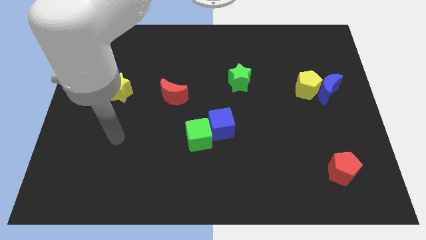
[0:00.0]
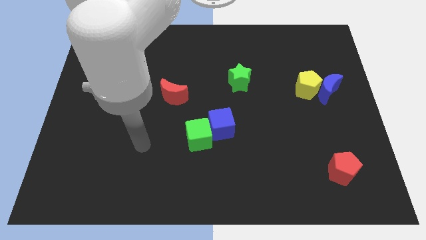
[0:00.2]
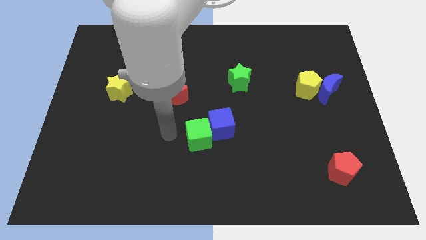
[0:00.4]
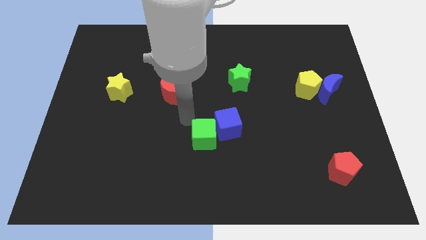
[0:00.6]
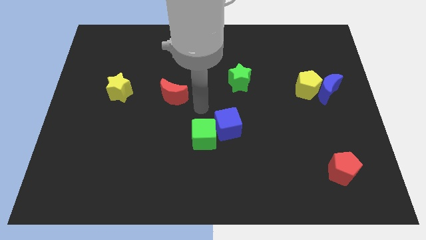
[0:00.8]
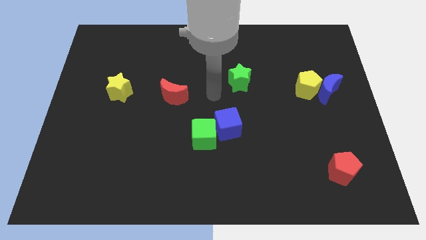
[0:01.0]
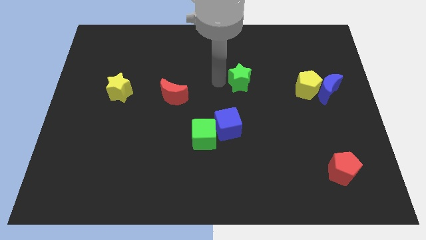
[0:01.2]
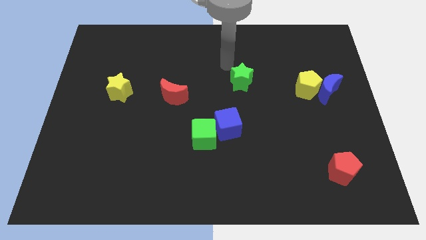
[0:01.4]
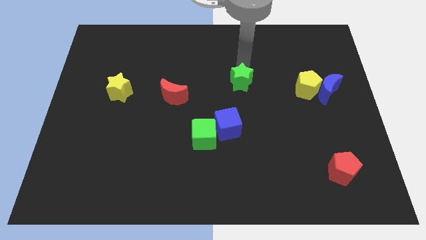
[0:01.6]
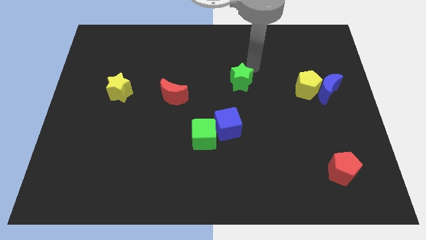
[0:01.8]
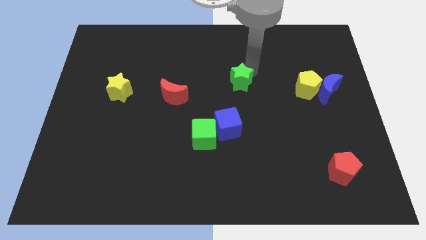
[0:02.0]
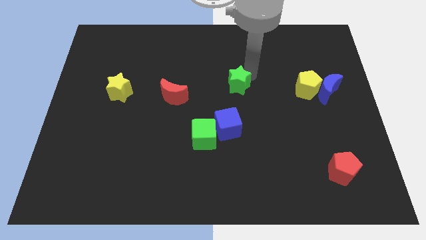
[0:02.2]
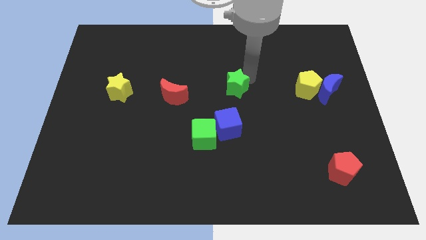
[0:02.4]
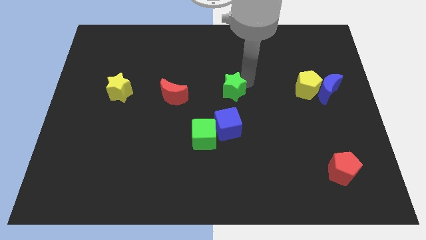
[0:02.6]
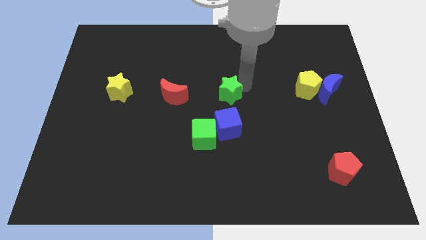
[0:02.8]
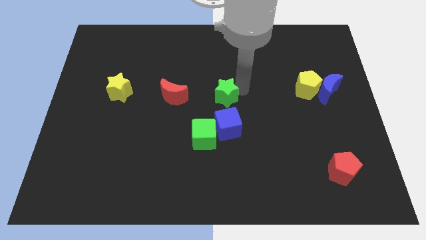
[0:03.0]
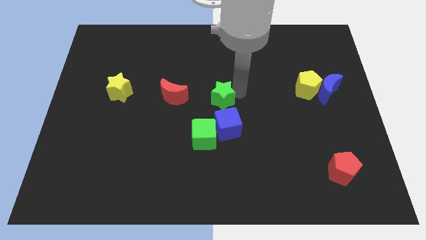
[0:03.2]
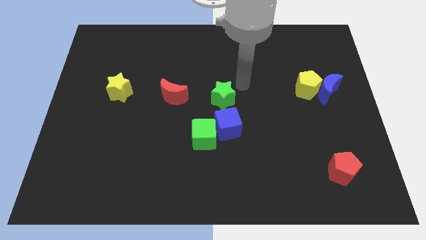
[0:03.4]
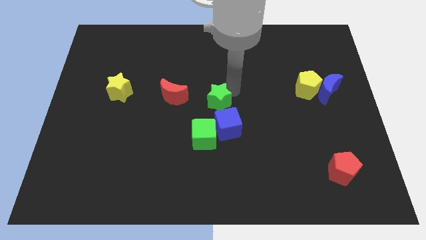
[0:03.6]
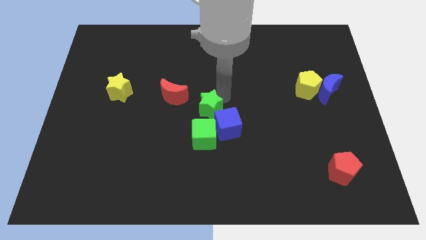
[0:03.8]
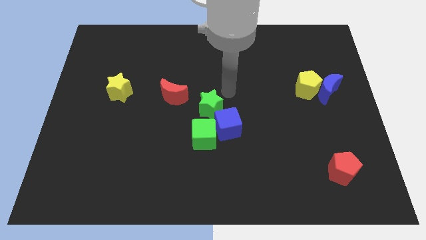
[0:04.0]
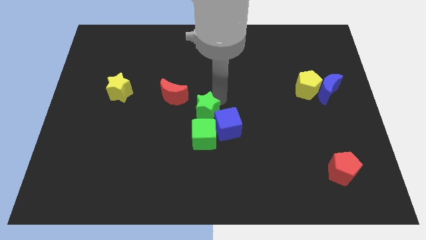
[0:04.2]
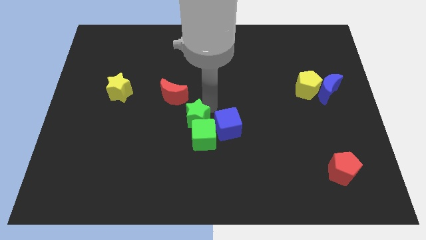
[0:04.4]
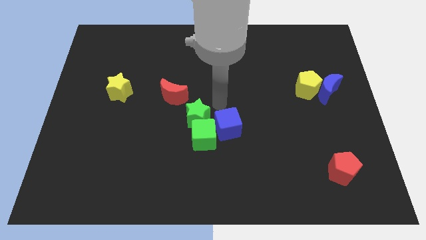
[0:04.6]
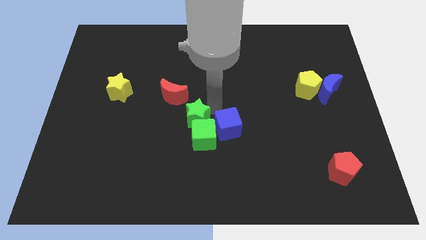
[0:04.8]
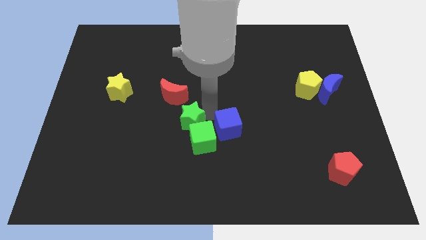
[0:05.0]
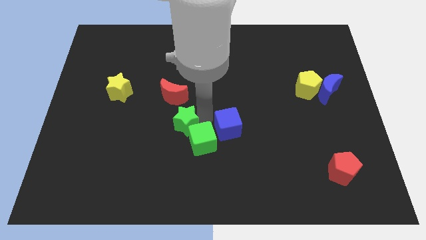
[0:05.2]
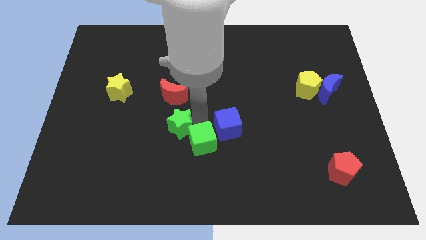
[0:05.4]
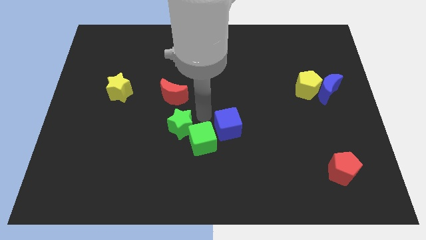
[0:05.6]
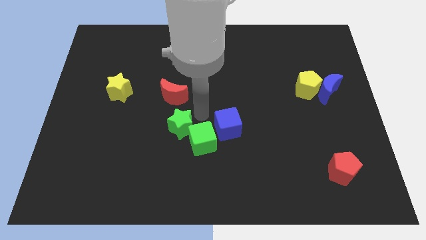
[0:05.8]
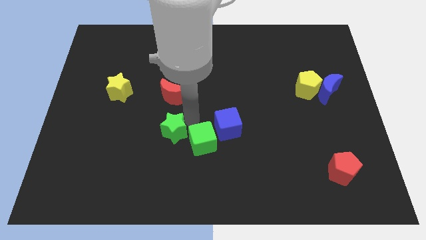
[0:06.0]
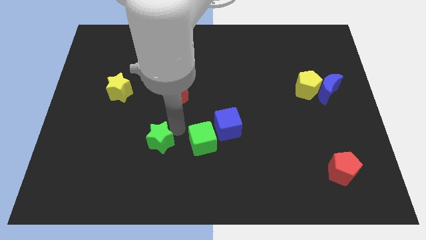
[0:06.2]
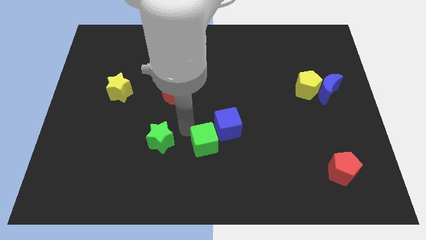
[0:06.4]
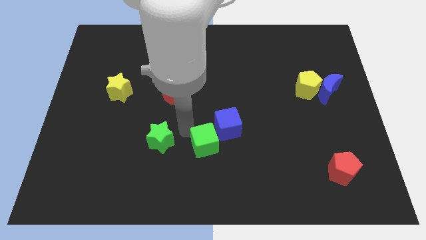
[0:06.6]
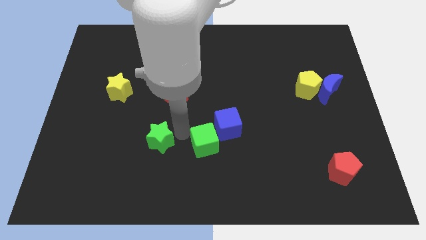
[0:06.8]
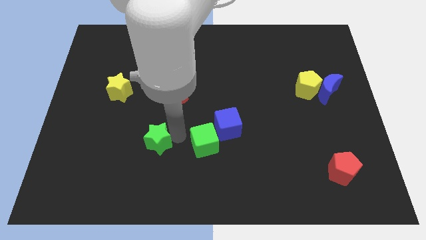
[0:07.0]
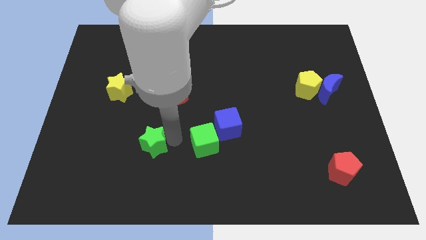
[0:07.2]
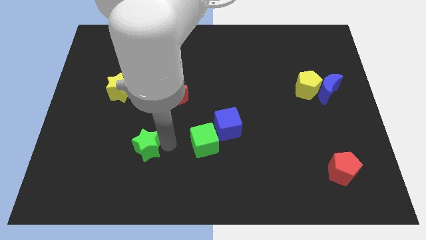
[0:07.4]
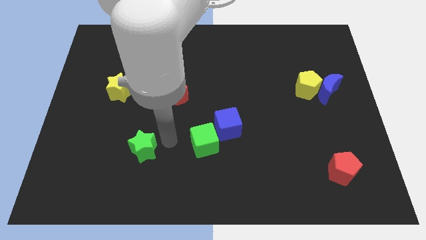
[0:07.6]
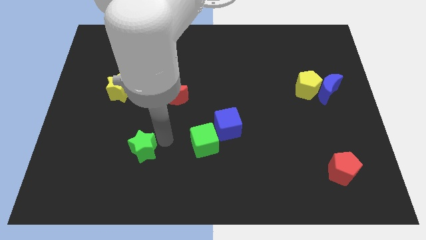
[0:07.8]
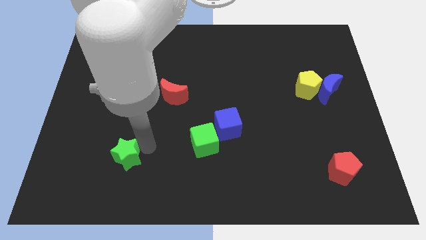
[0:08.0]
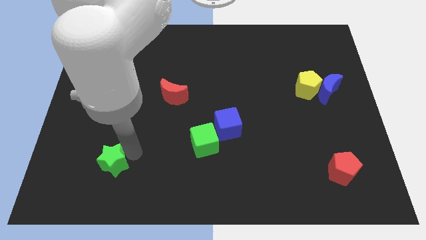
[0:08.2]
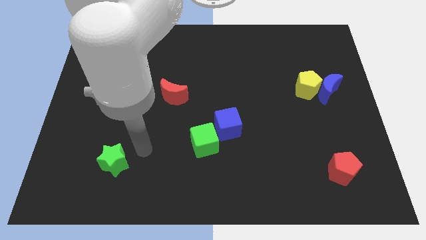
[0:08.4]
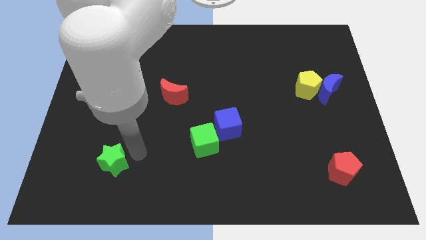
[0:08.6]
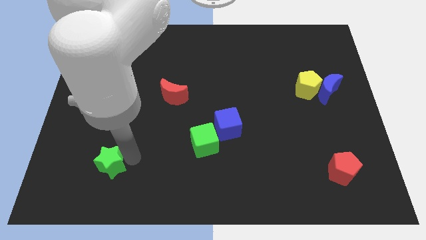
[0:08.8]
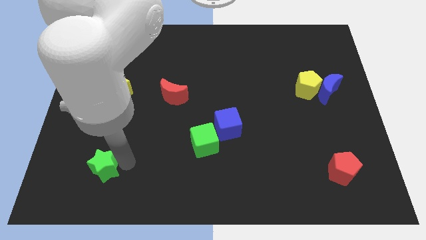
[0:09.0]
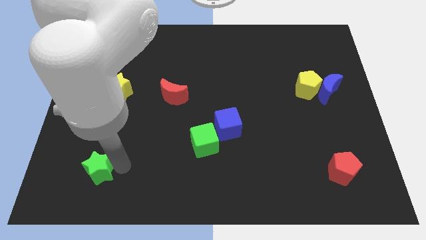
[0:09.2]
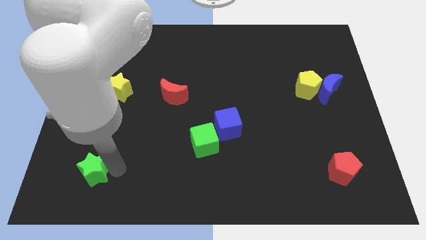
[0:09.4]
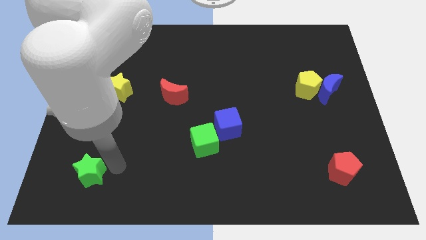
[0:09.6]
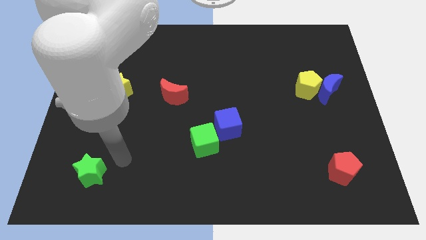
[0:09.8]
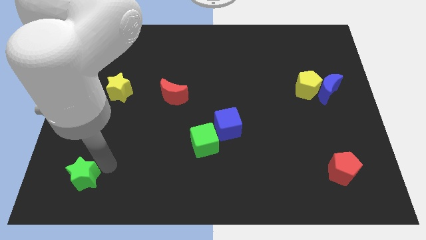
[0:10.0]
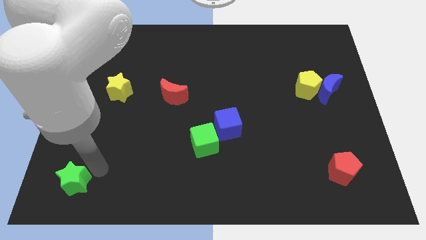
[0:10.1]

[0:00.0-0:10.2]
move the green star to the bottom left corner
